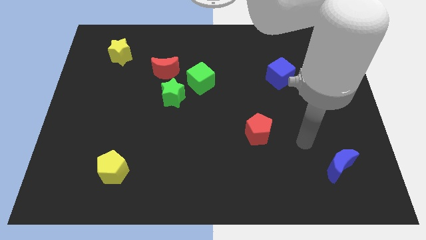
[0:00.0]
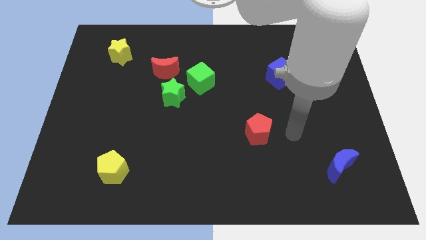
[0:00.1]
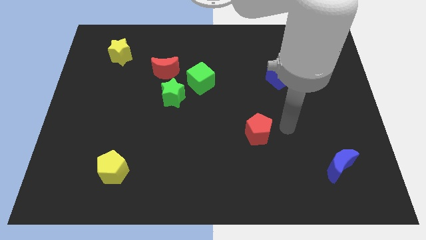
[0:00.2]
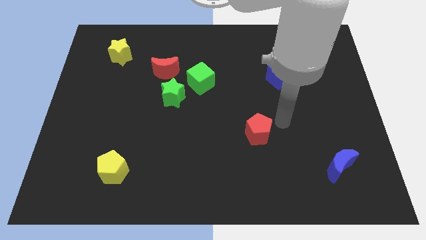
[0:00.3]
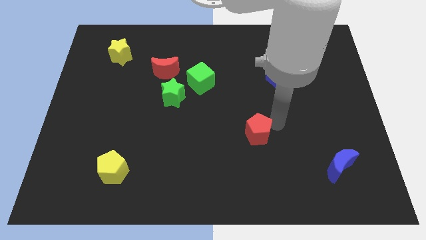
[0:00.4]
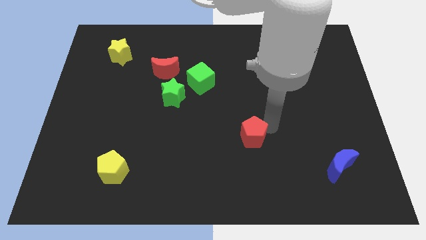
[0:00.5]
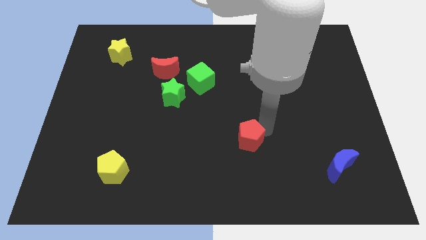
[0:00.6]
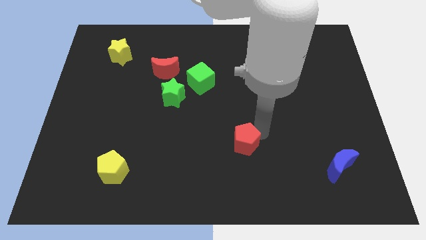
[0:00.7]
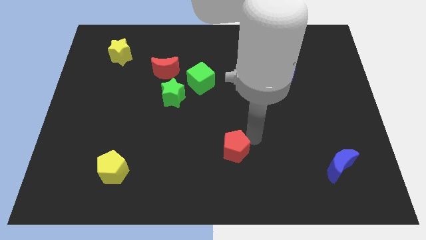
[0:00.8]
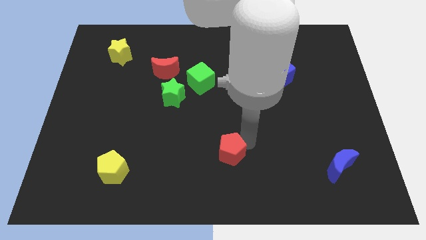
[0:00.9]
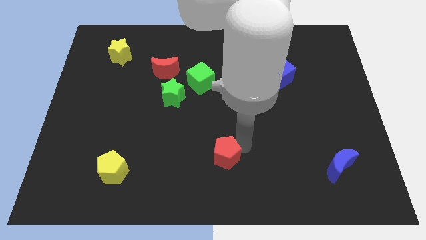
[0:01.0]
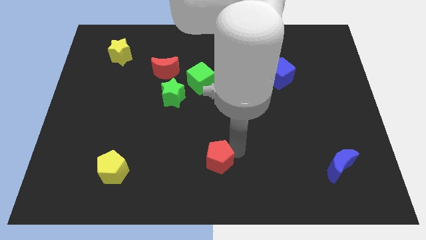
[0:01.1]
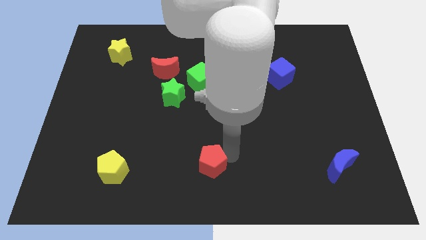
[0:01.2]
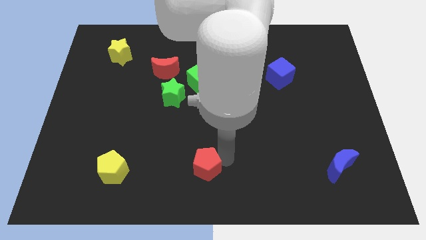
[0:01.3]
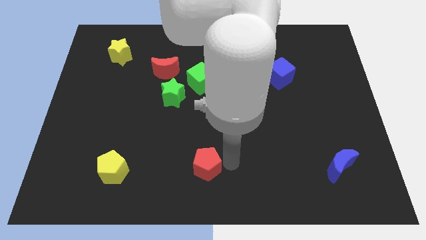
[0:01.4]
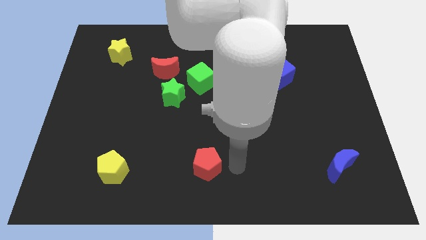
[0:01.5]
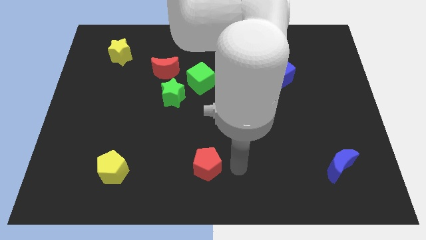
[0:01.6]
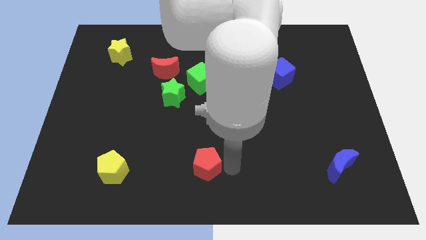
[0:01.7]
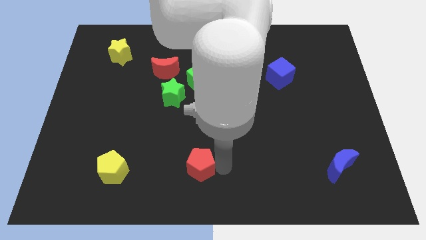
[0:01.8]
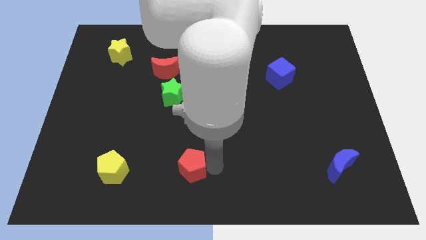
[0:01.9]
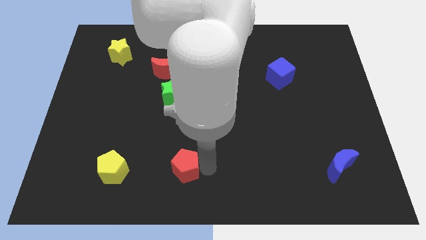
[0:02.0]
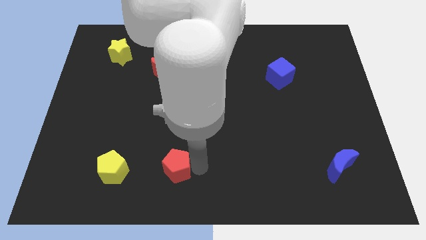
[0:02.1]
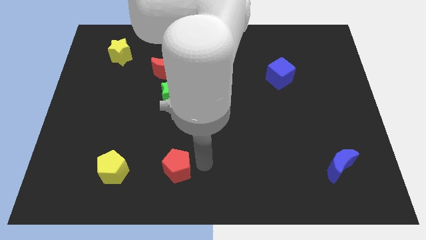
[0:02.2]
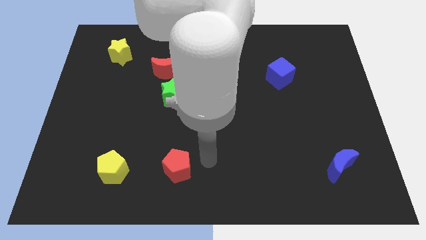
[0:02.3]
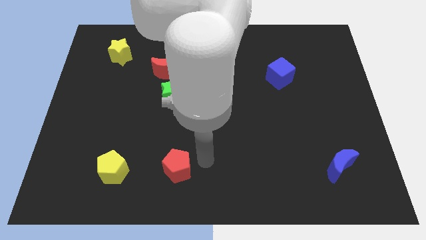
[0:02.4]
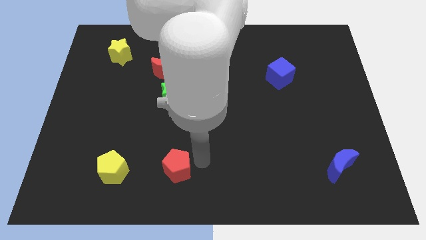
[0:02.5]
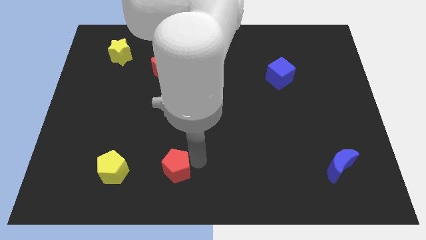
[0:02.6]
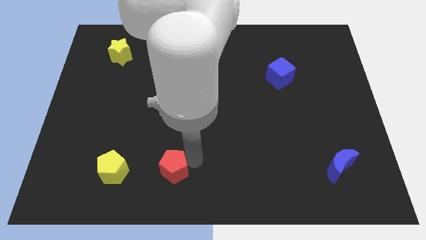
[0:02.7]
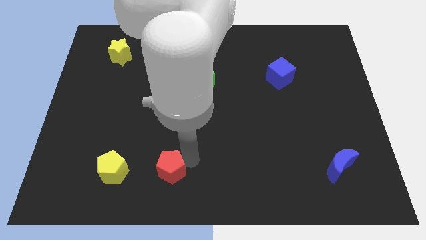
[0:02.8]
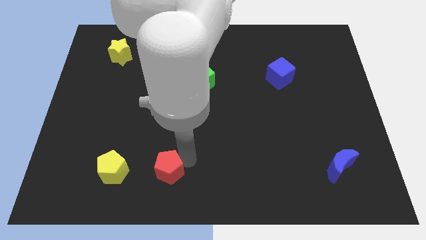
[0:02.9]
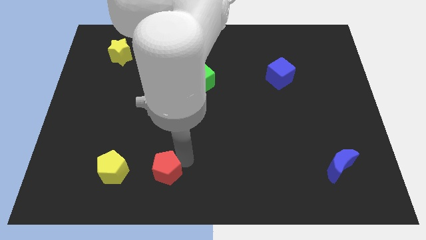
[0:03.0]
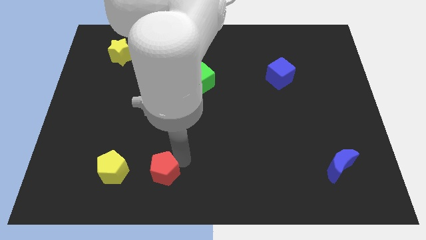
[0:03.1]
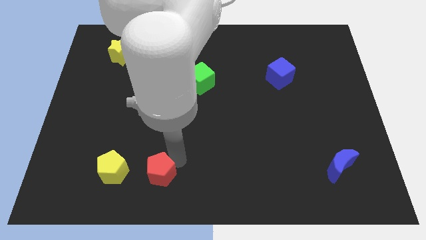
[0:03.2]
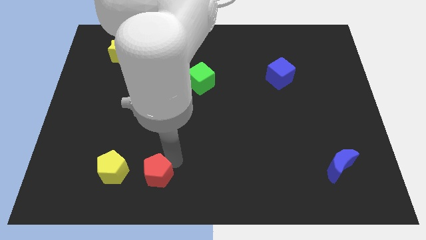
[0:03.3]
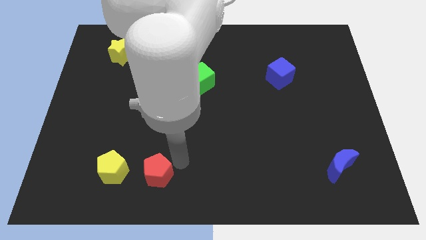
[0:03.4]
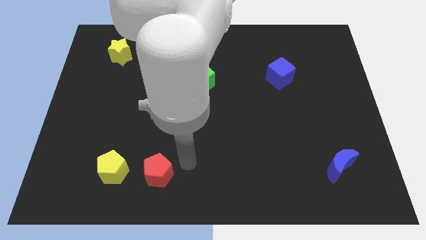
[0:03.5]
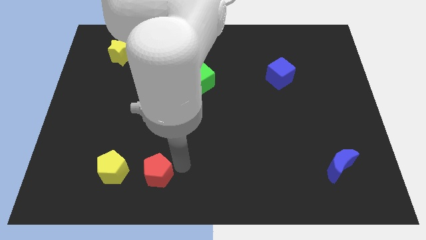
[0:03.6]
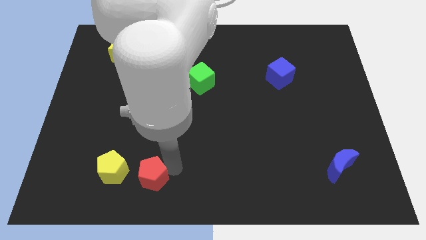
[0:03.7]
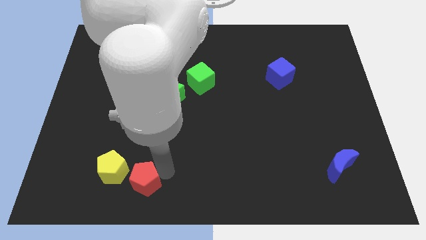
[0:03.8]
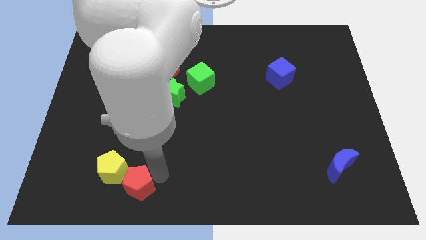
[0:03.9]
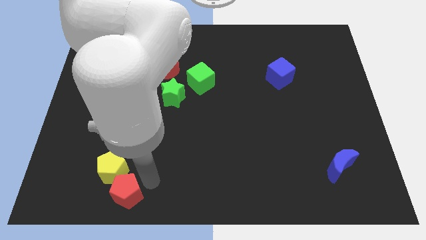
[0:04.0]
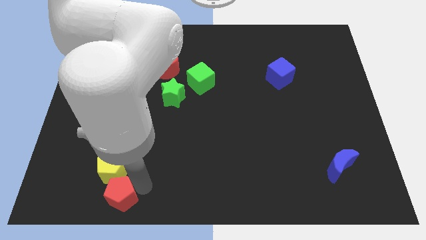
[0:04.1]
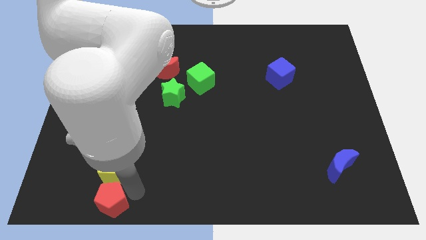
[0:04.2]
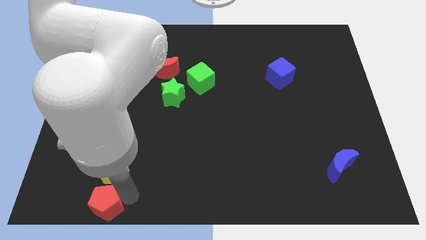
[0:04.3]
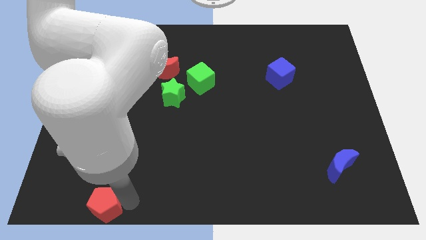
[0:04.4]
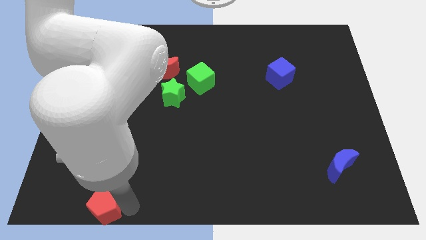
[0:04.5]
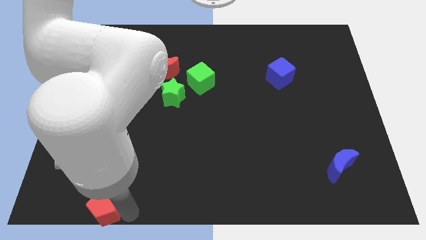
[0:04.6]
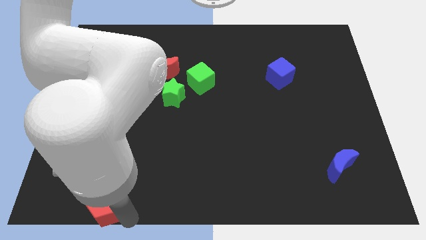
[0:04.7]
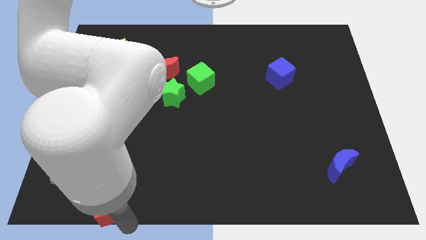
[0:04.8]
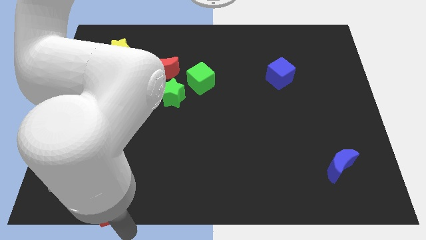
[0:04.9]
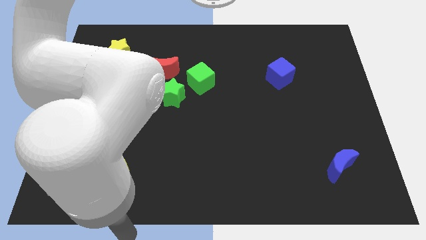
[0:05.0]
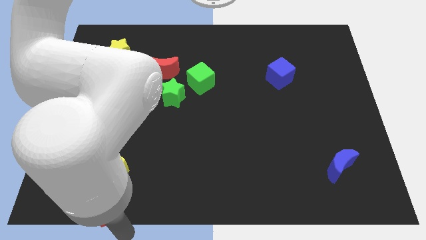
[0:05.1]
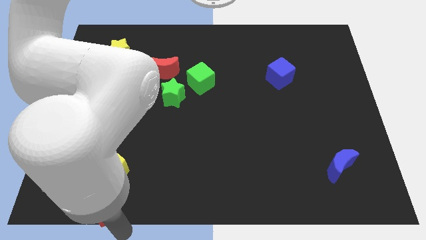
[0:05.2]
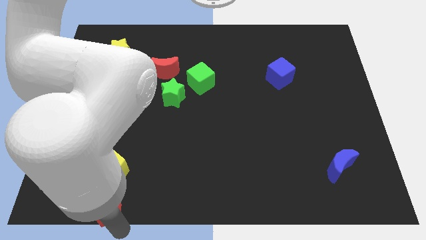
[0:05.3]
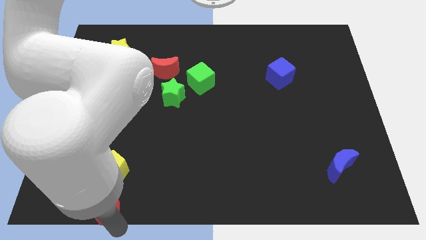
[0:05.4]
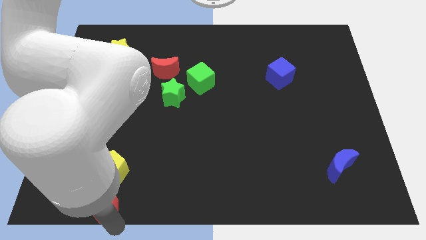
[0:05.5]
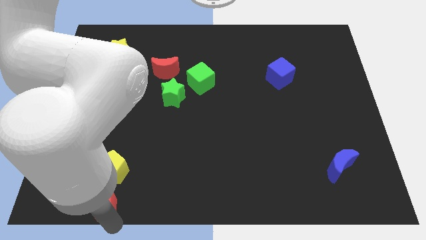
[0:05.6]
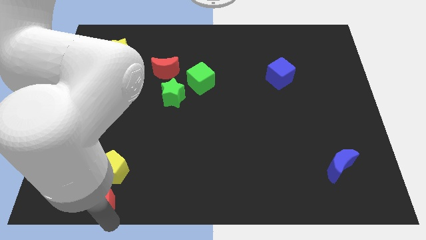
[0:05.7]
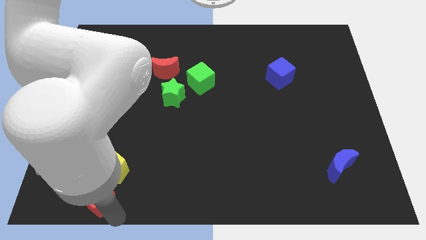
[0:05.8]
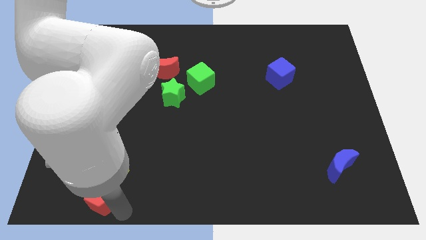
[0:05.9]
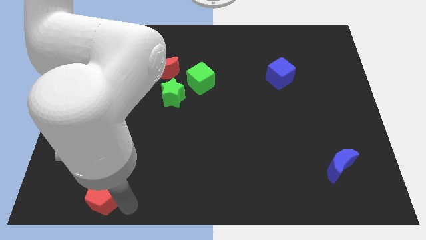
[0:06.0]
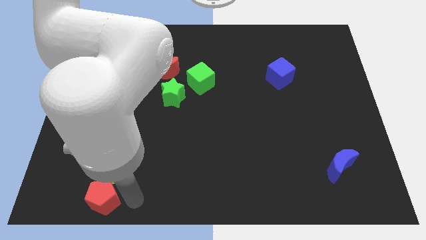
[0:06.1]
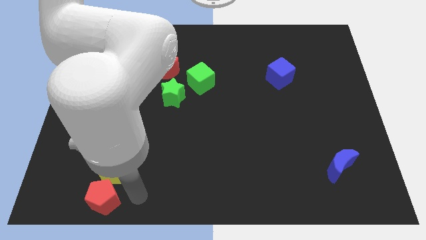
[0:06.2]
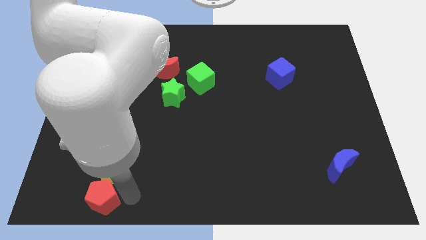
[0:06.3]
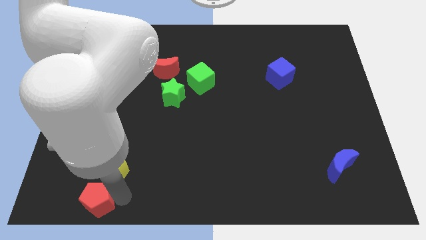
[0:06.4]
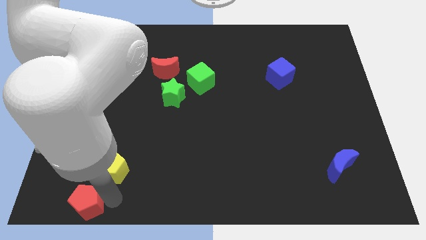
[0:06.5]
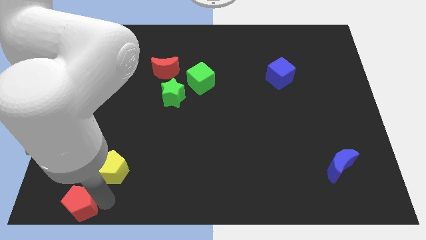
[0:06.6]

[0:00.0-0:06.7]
slide the red pentagon to the bottom left

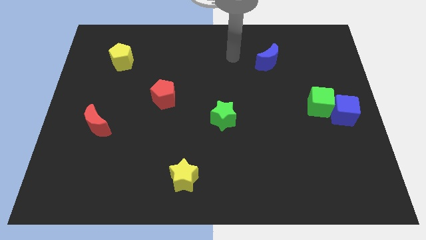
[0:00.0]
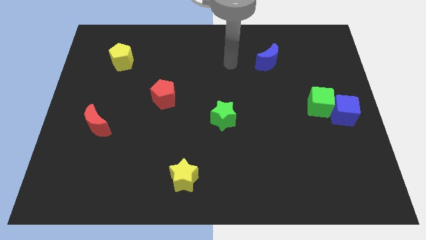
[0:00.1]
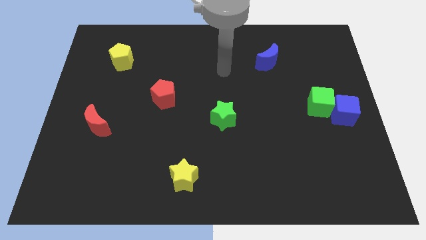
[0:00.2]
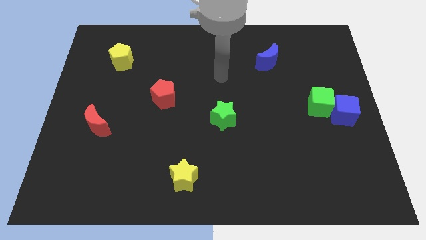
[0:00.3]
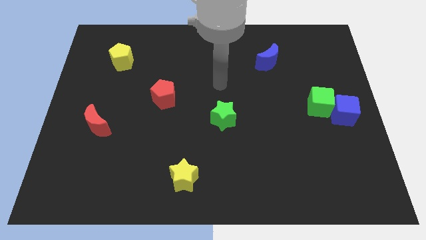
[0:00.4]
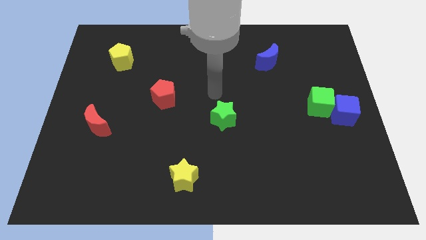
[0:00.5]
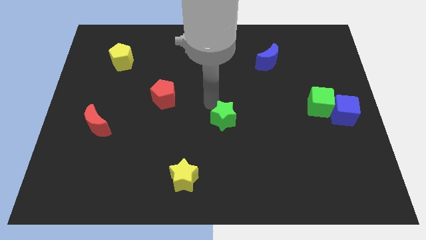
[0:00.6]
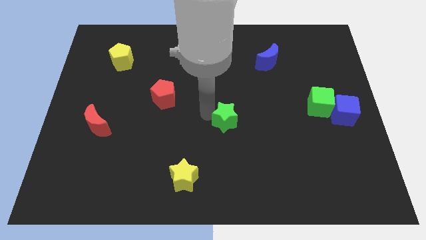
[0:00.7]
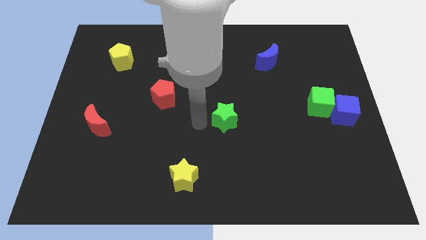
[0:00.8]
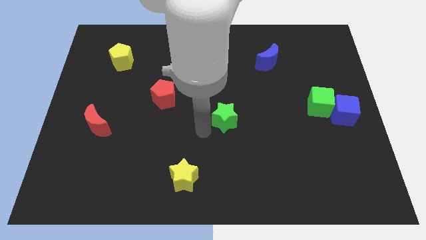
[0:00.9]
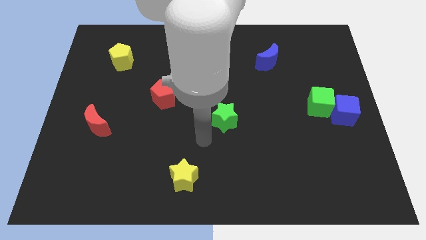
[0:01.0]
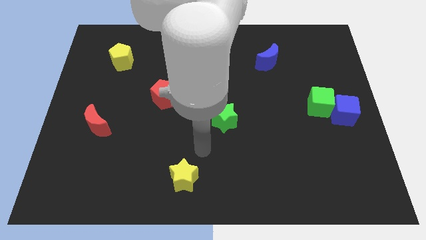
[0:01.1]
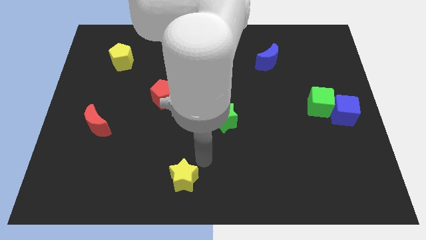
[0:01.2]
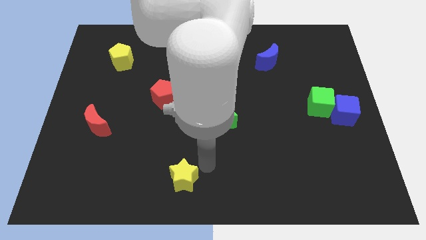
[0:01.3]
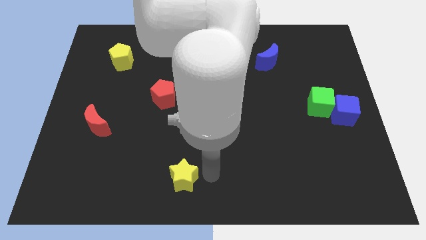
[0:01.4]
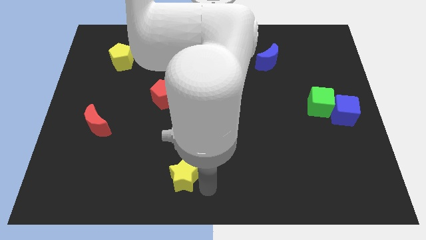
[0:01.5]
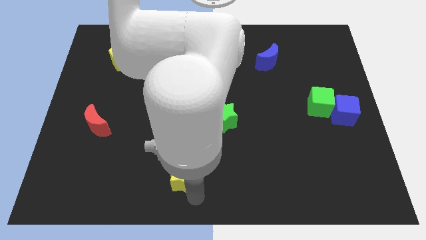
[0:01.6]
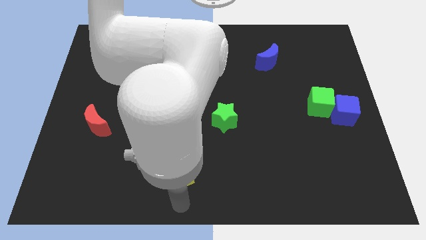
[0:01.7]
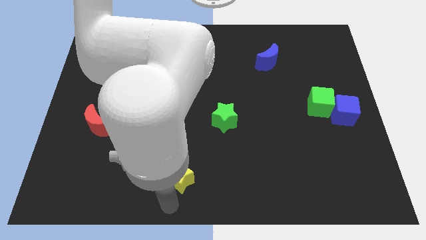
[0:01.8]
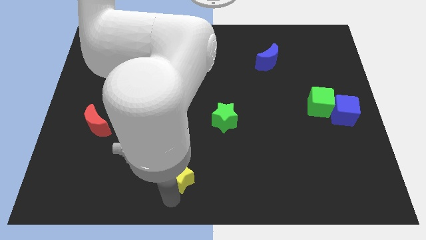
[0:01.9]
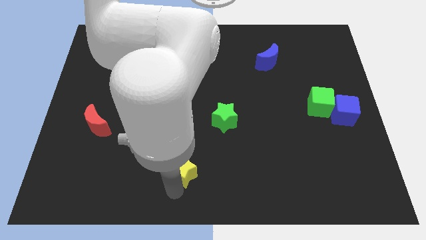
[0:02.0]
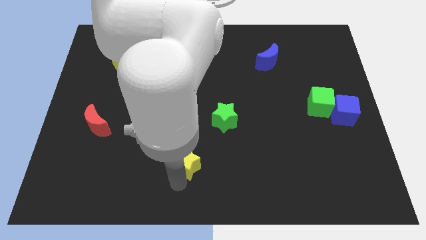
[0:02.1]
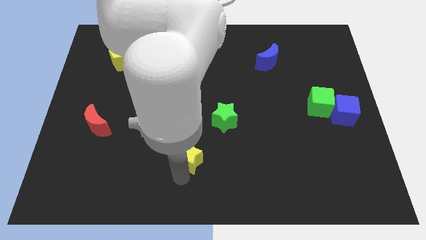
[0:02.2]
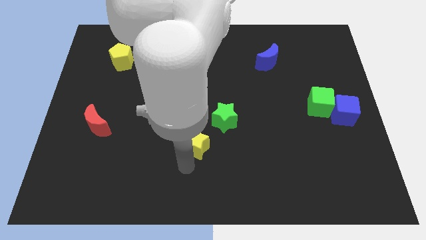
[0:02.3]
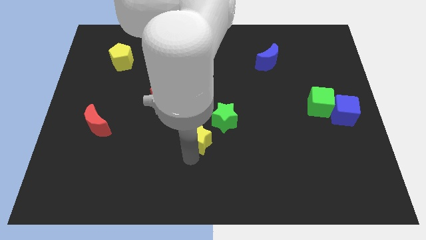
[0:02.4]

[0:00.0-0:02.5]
move the yellow star to the center
